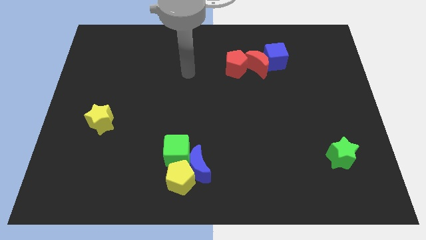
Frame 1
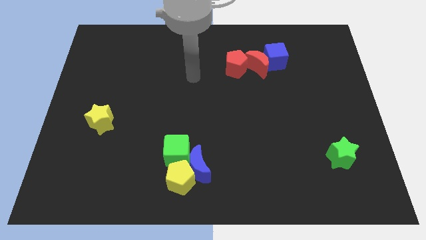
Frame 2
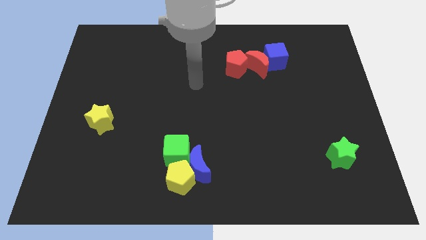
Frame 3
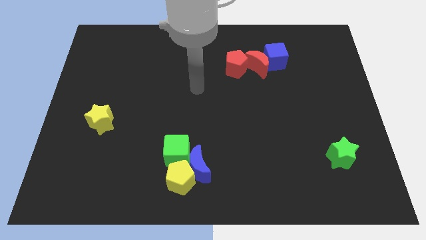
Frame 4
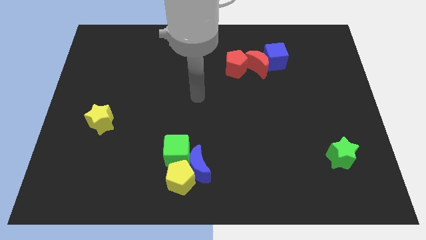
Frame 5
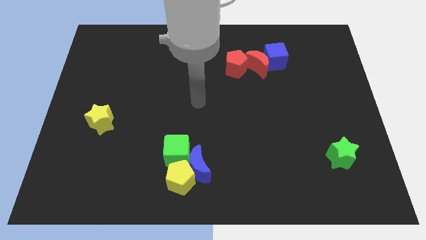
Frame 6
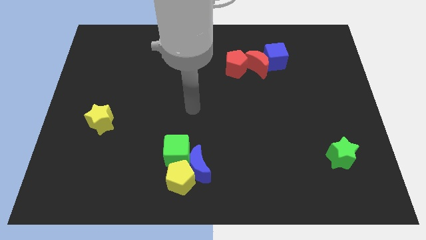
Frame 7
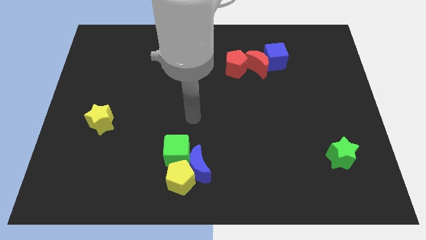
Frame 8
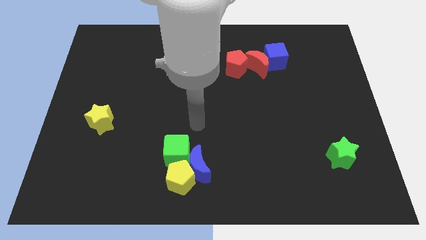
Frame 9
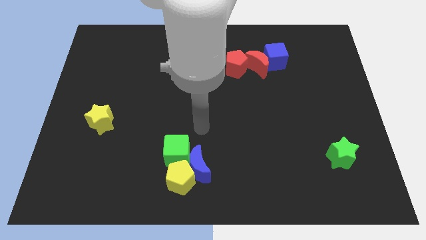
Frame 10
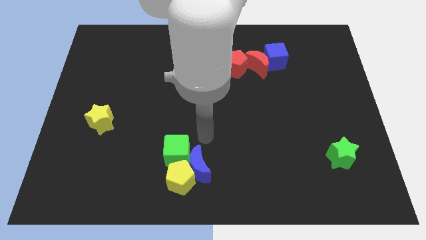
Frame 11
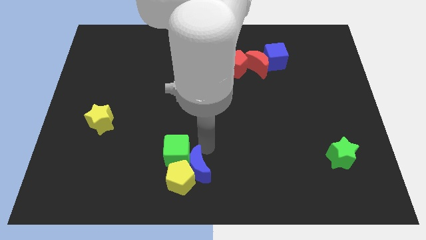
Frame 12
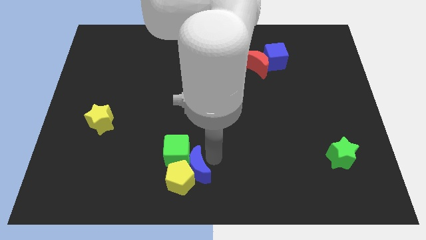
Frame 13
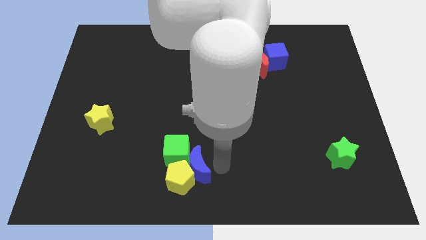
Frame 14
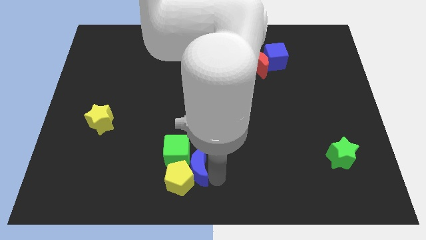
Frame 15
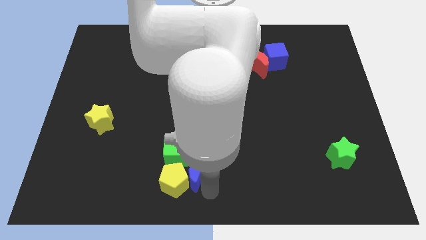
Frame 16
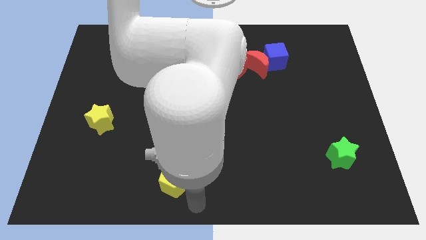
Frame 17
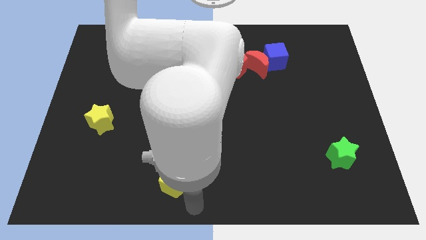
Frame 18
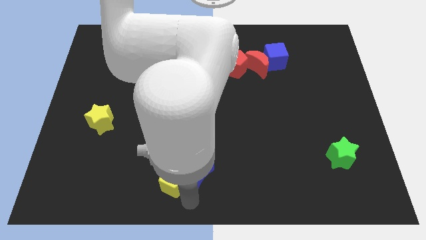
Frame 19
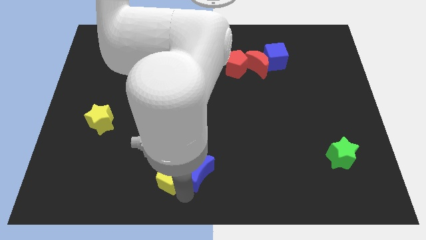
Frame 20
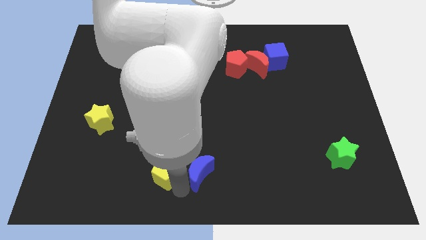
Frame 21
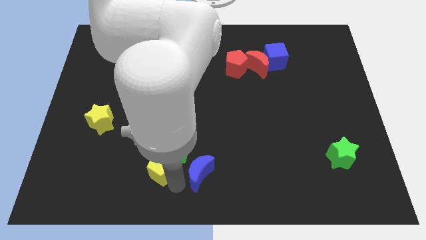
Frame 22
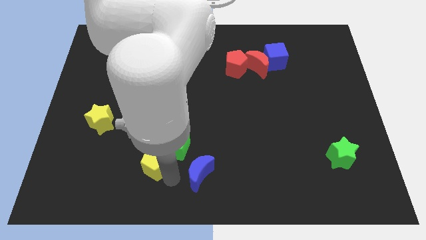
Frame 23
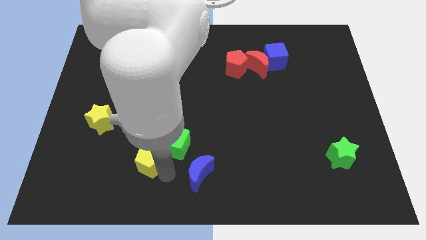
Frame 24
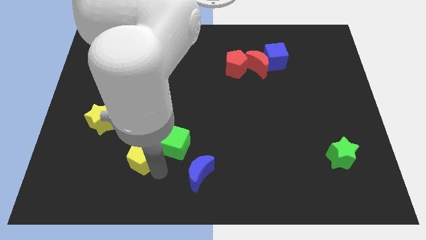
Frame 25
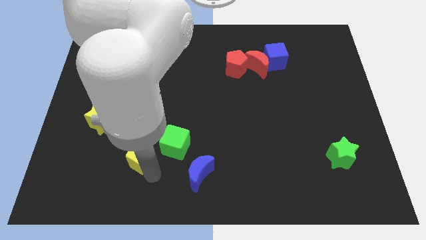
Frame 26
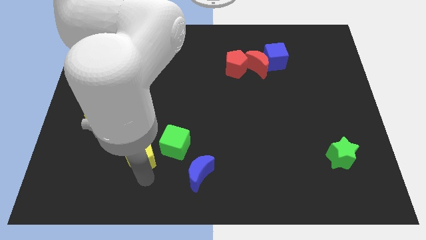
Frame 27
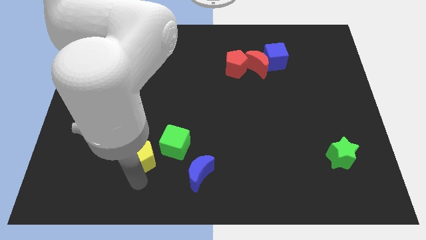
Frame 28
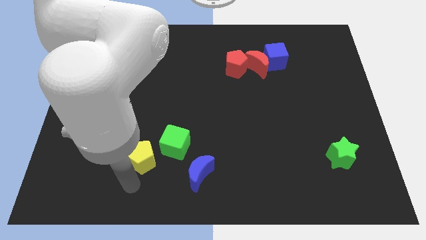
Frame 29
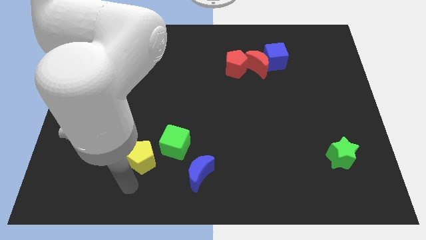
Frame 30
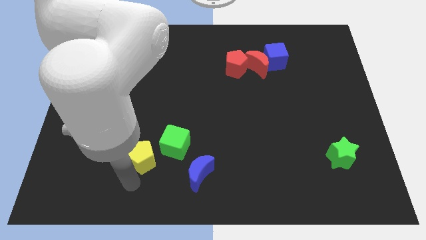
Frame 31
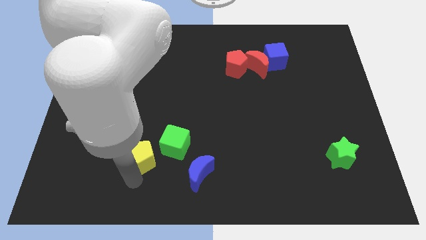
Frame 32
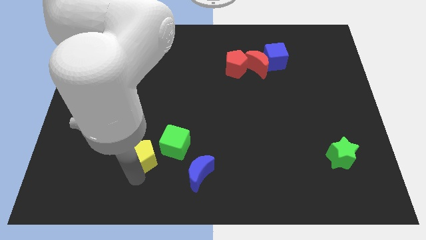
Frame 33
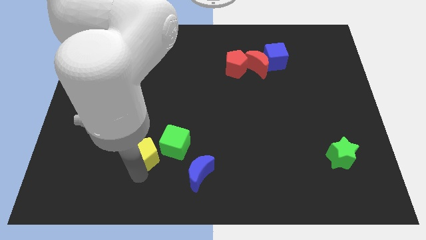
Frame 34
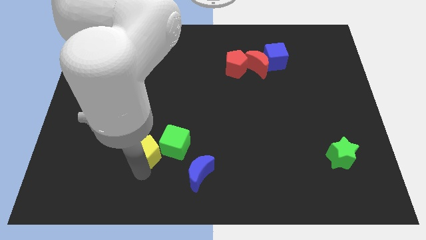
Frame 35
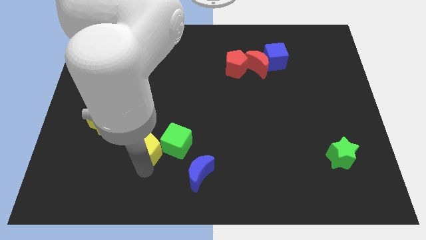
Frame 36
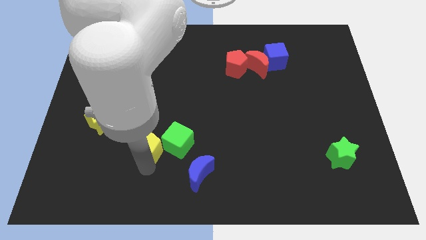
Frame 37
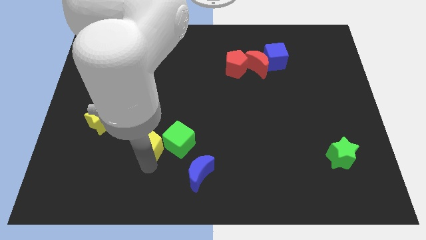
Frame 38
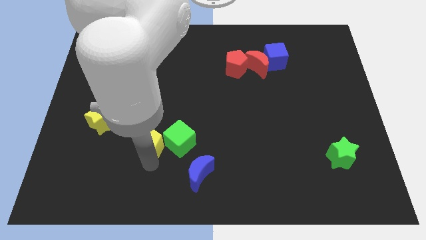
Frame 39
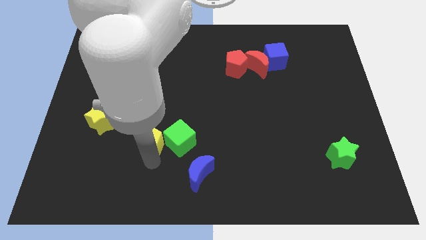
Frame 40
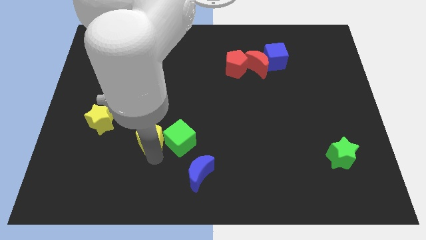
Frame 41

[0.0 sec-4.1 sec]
slide the yellow pentagon up a little bit

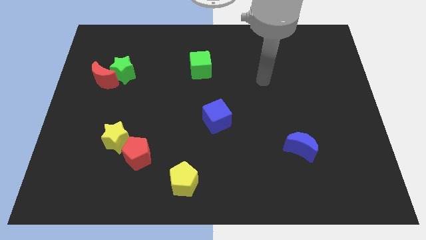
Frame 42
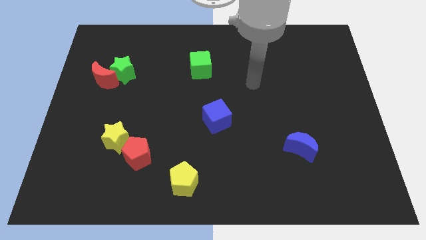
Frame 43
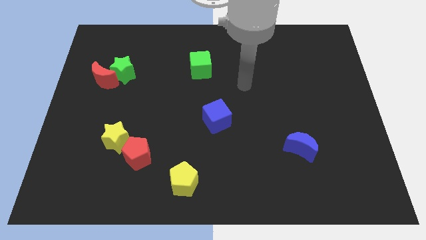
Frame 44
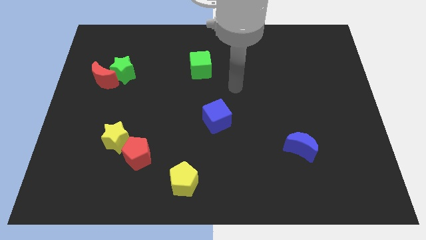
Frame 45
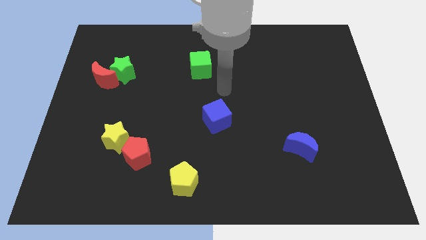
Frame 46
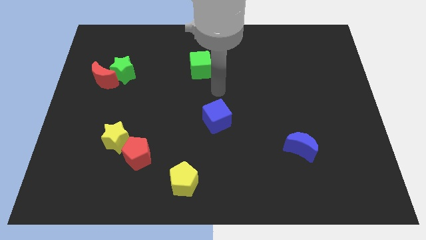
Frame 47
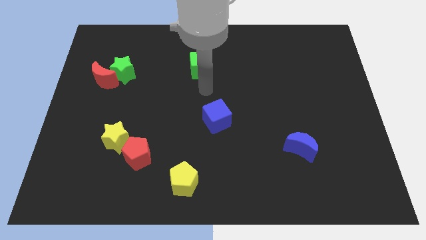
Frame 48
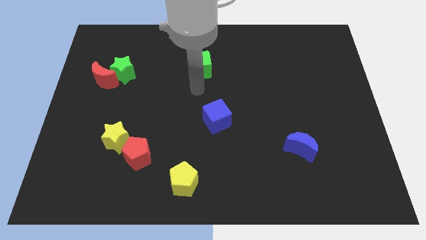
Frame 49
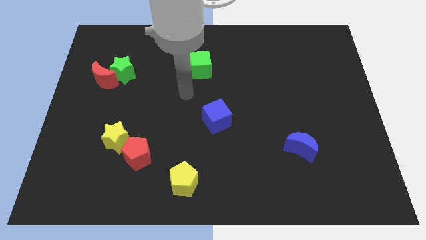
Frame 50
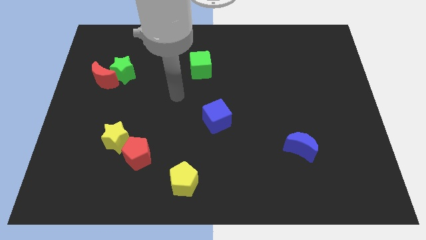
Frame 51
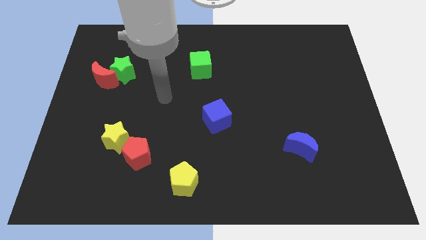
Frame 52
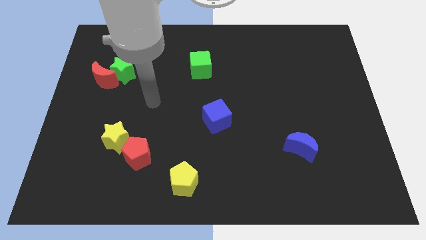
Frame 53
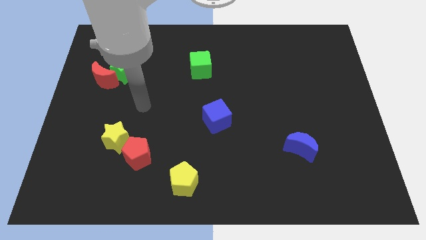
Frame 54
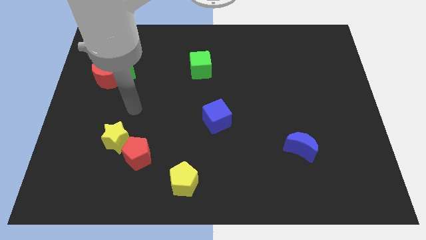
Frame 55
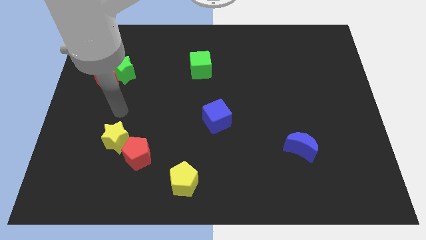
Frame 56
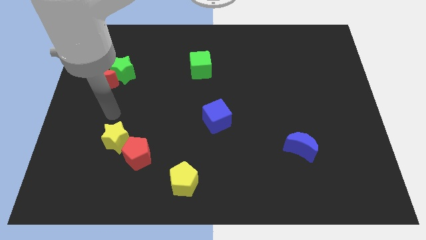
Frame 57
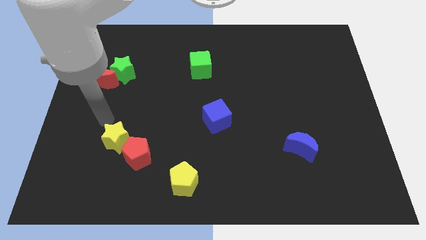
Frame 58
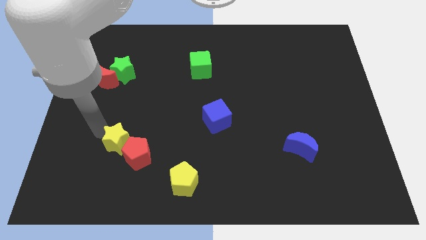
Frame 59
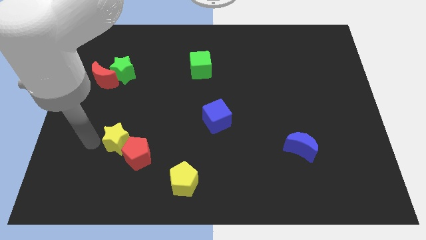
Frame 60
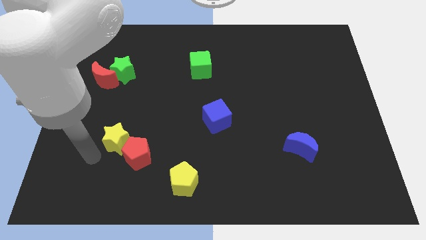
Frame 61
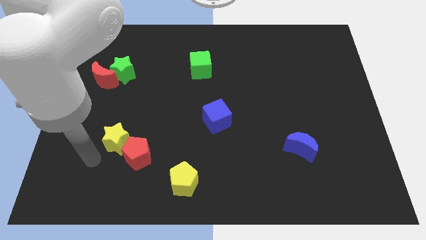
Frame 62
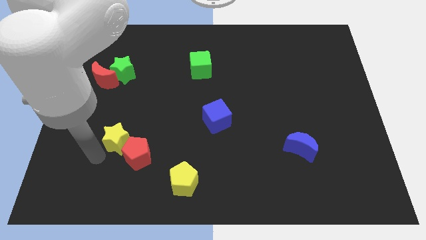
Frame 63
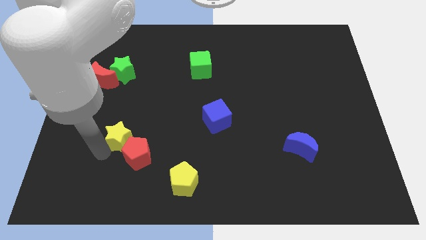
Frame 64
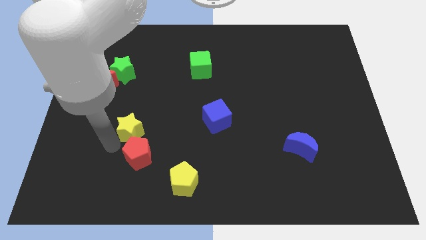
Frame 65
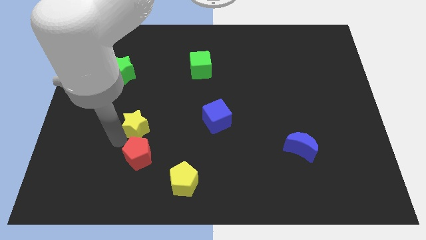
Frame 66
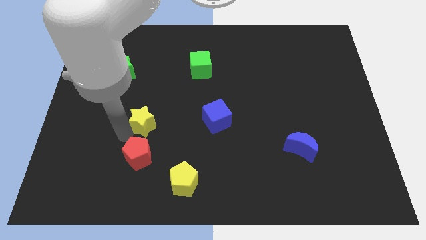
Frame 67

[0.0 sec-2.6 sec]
slightly move the yellow star up and then right

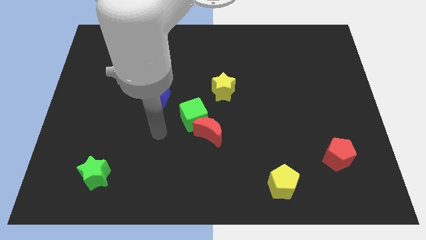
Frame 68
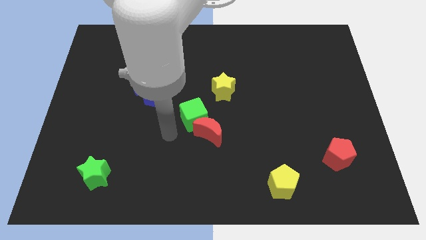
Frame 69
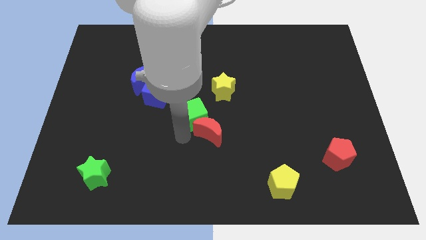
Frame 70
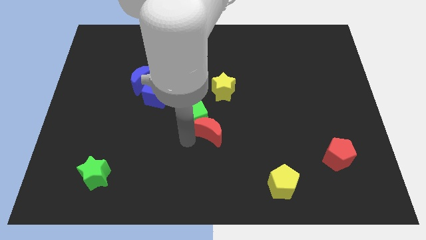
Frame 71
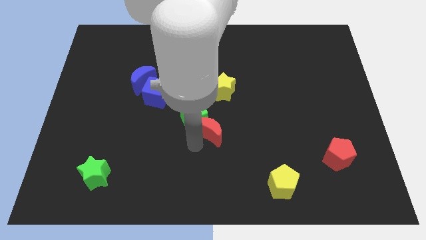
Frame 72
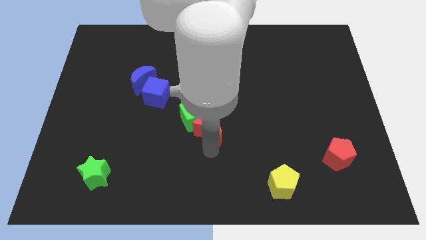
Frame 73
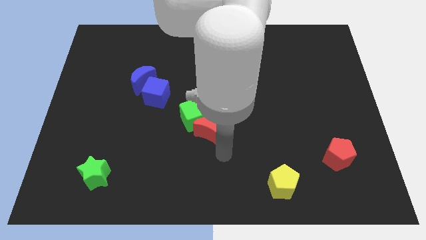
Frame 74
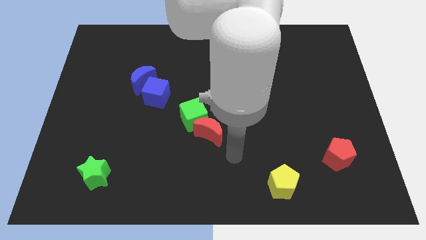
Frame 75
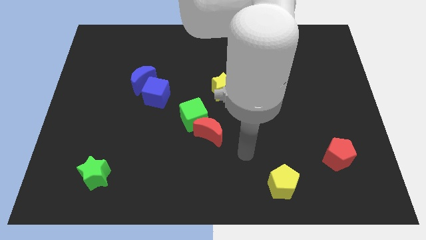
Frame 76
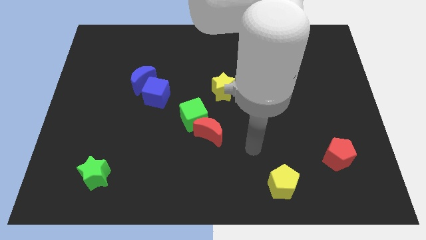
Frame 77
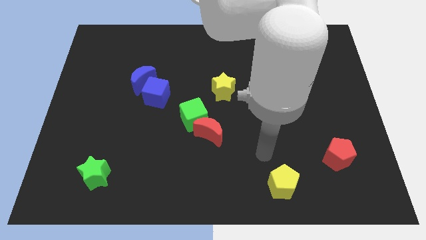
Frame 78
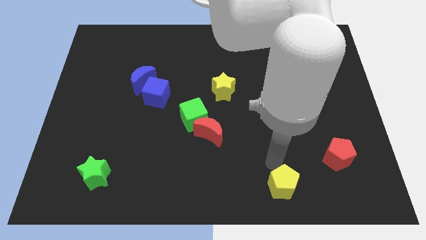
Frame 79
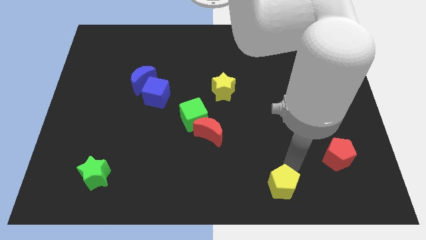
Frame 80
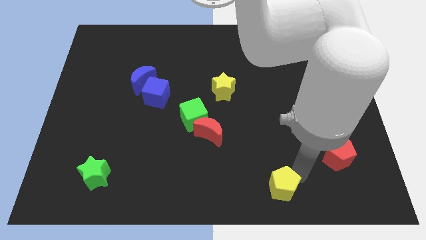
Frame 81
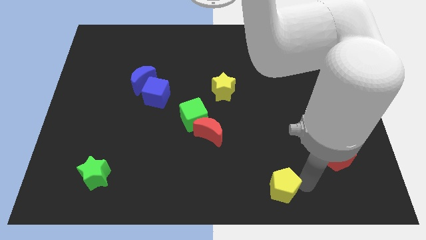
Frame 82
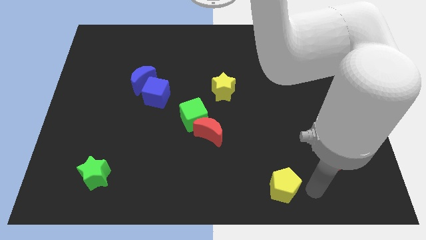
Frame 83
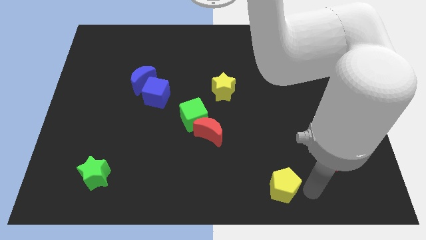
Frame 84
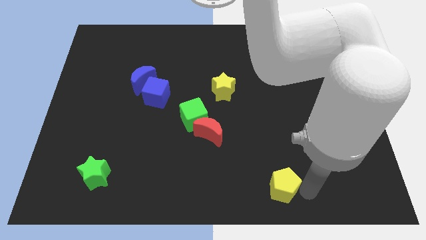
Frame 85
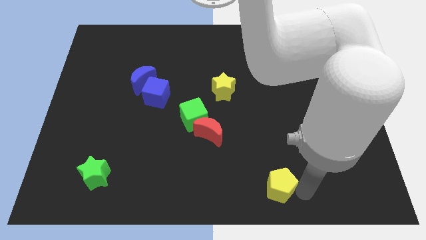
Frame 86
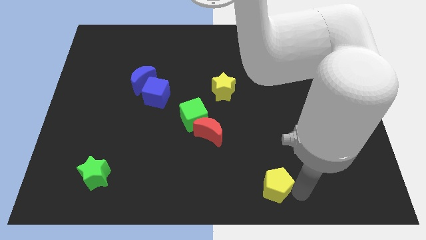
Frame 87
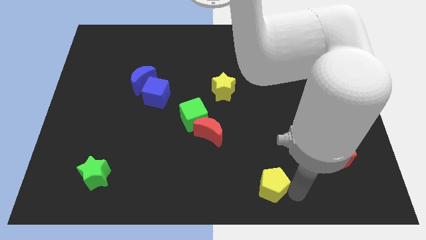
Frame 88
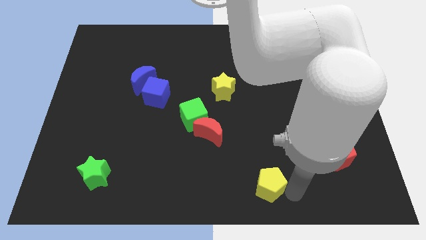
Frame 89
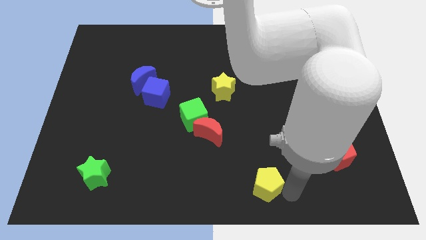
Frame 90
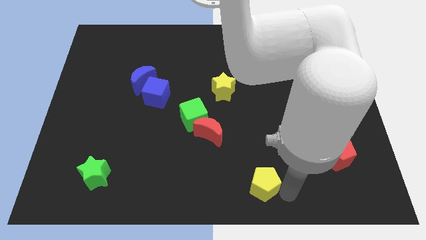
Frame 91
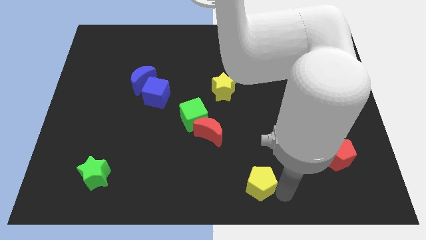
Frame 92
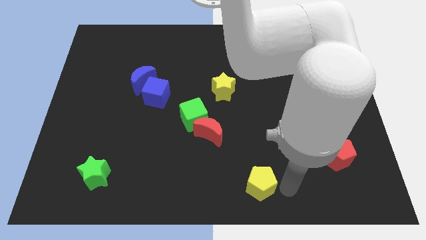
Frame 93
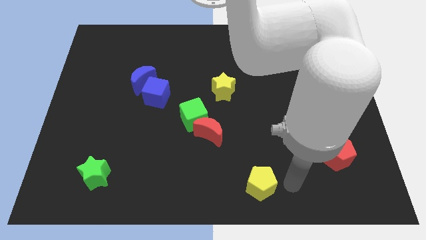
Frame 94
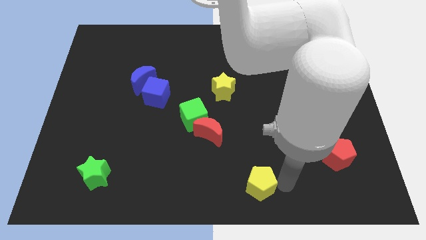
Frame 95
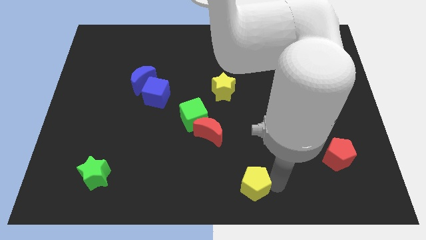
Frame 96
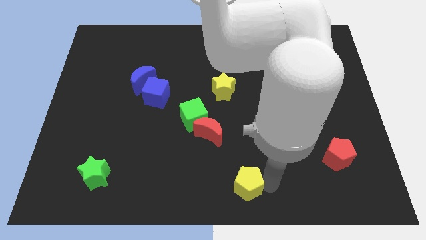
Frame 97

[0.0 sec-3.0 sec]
slide the yellow pentagon to the left slightly
